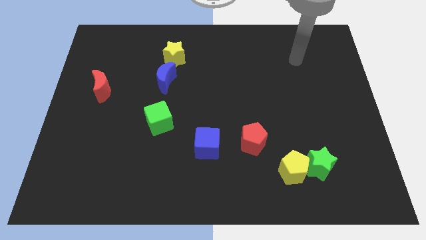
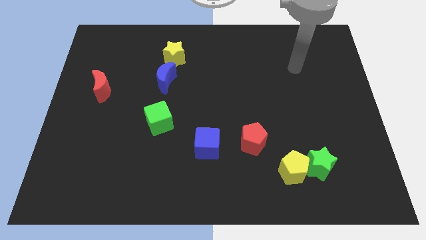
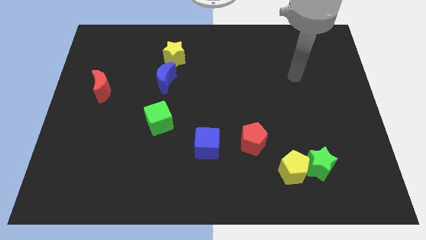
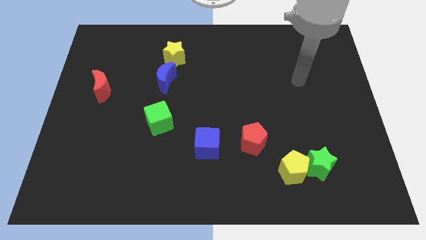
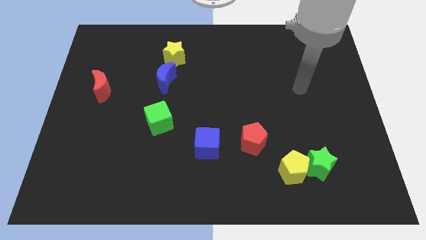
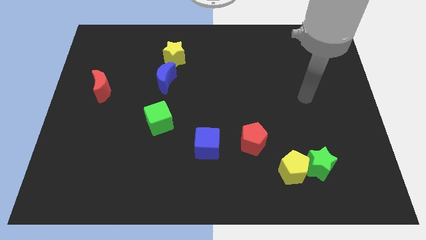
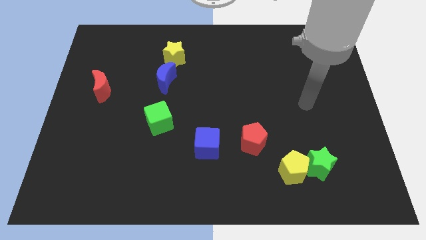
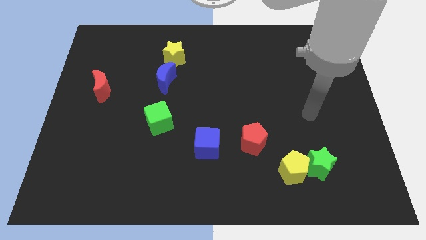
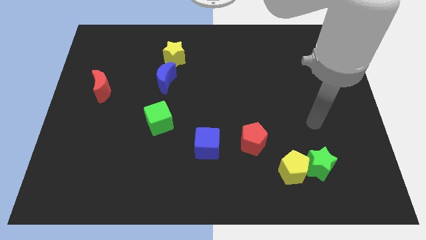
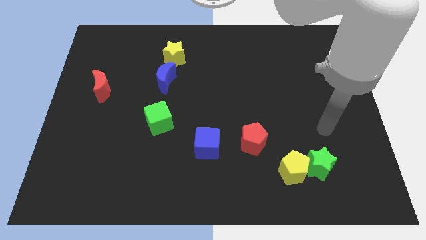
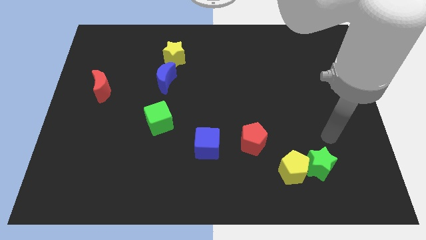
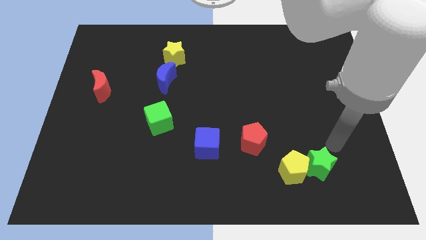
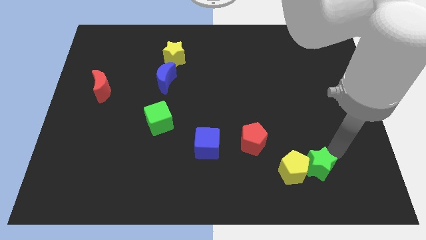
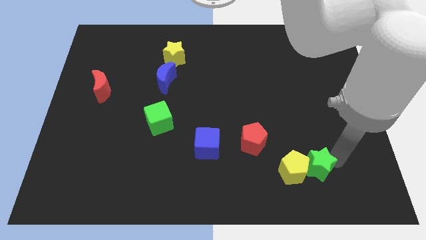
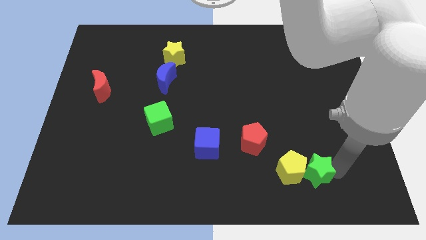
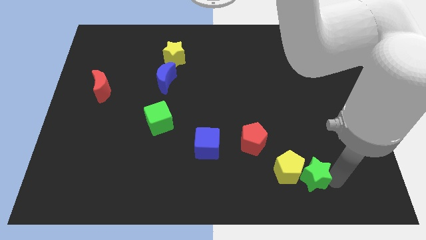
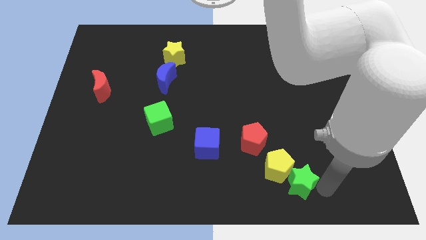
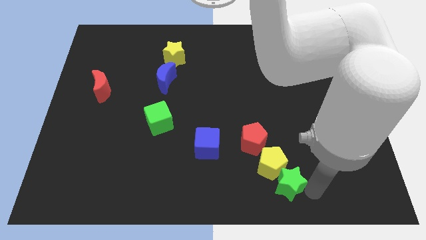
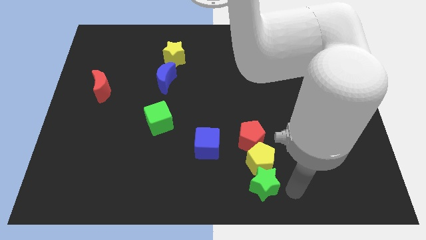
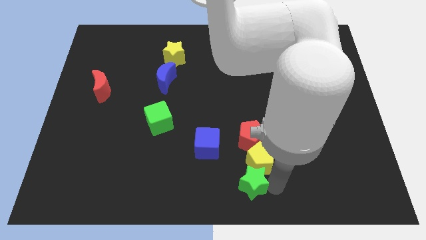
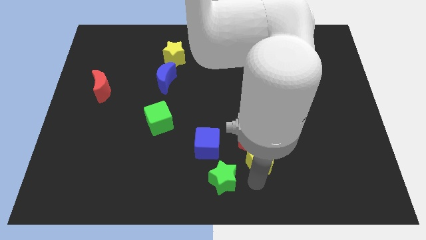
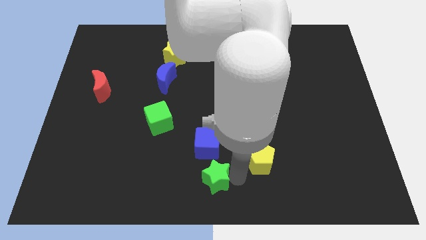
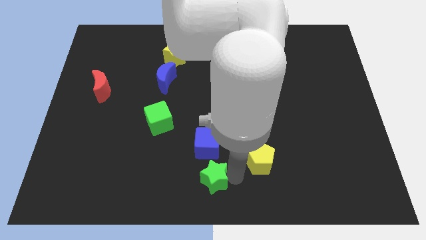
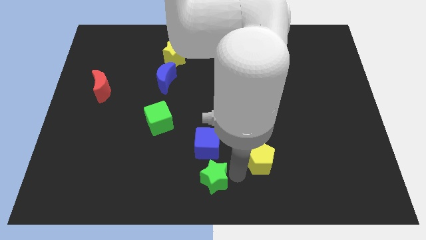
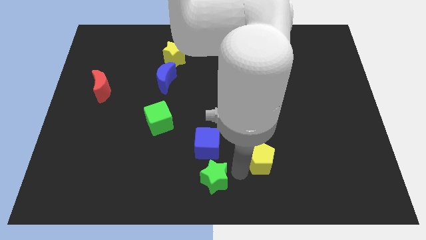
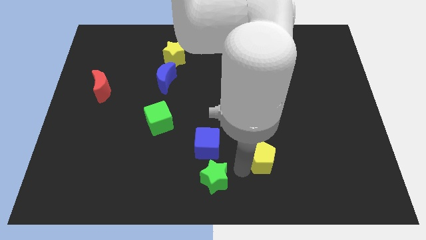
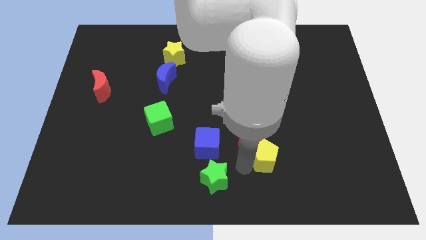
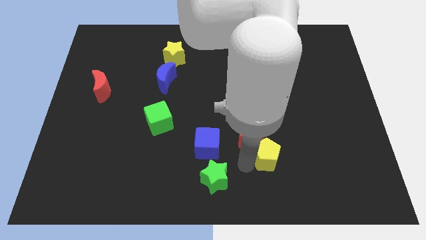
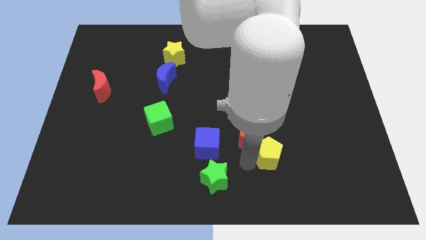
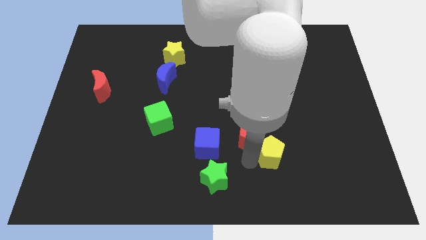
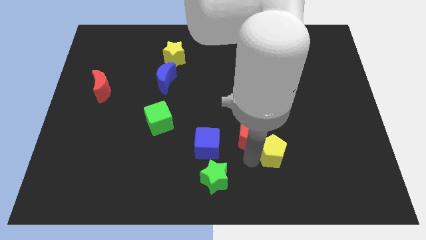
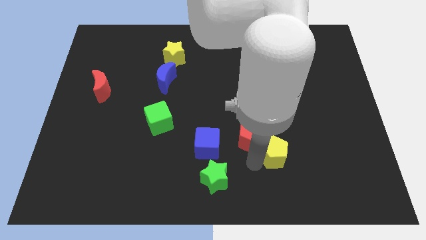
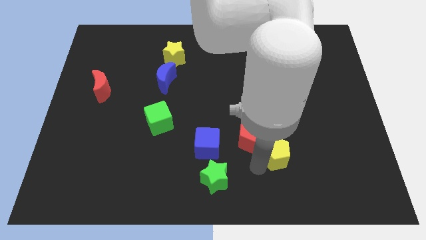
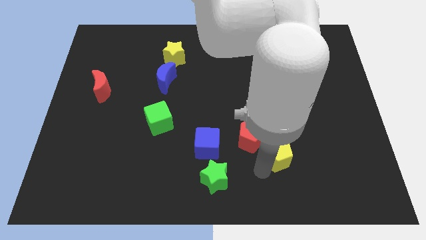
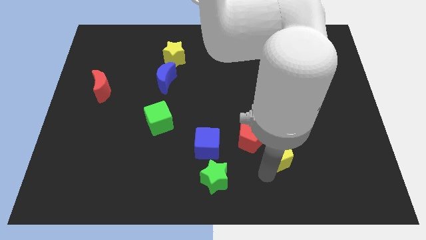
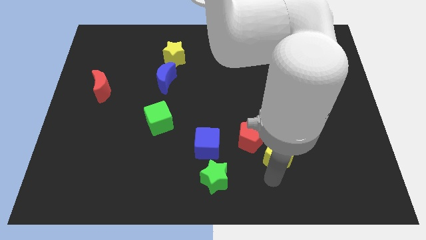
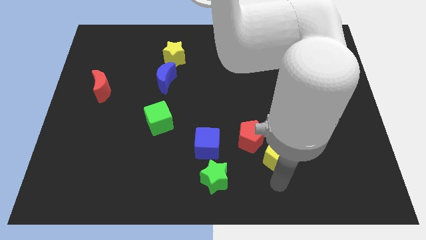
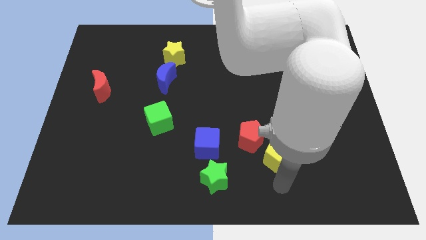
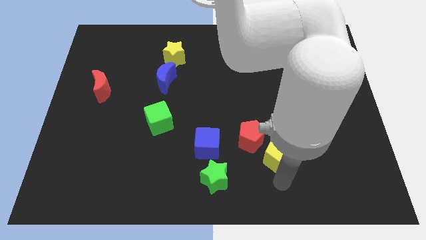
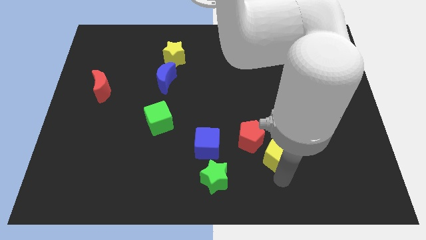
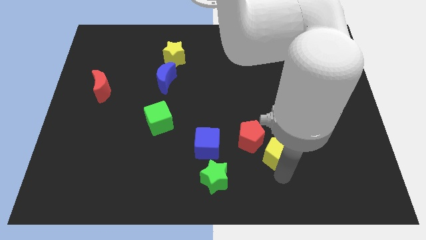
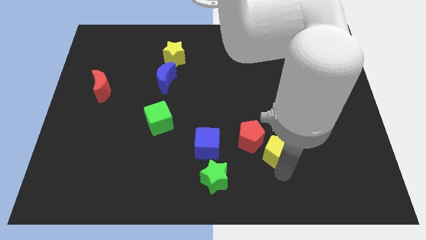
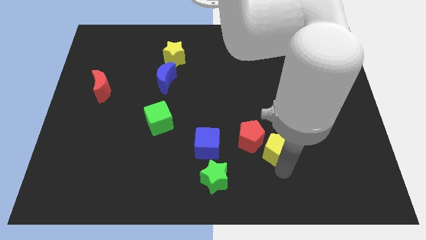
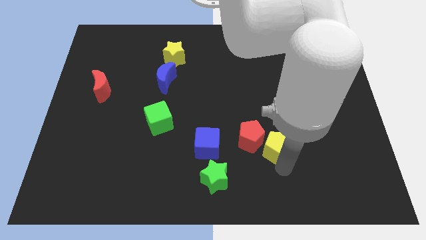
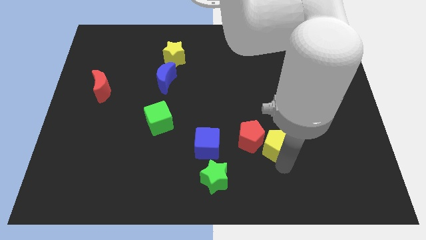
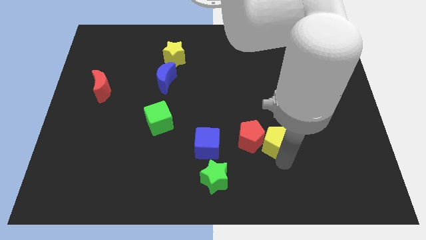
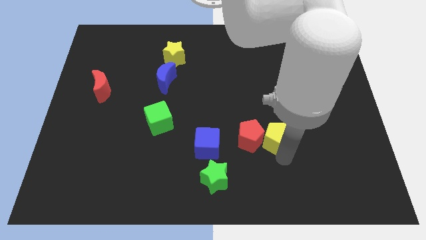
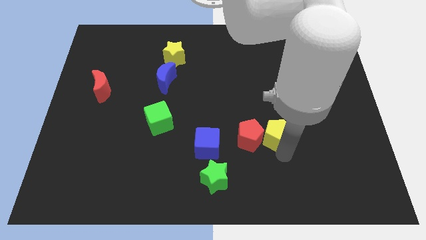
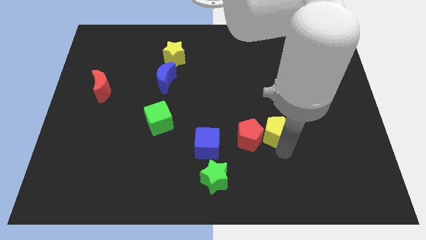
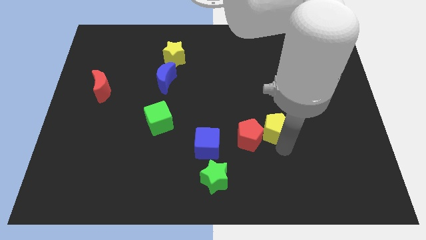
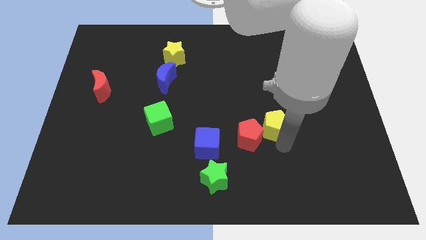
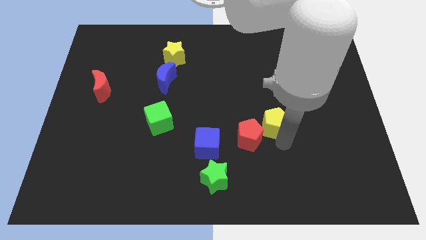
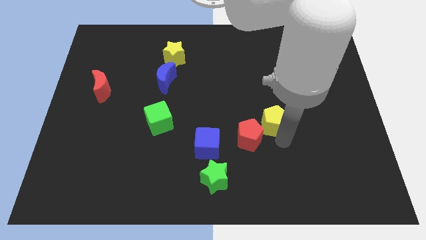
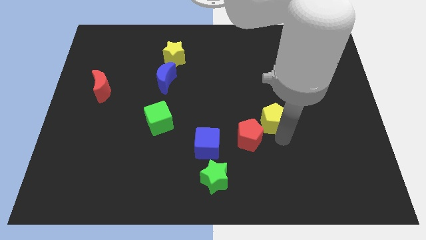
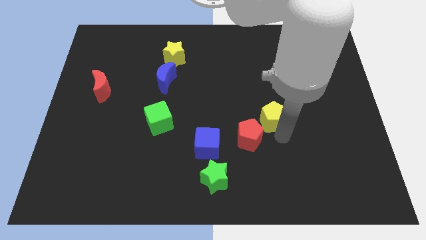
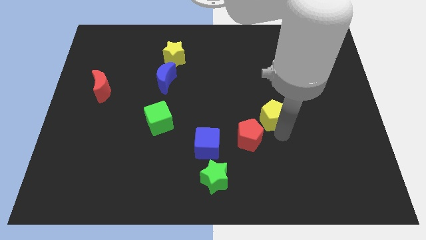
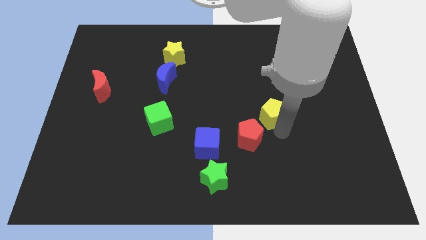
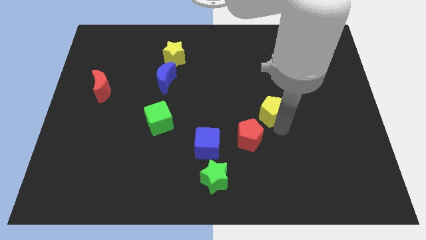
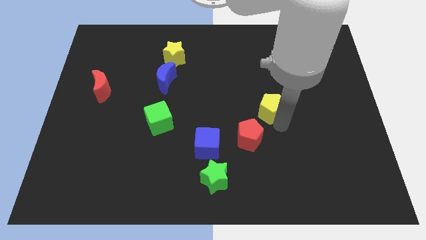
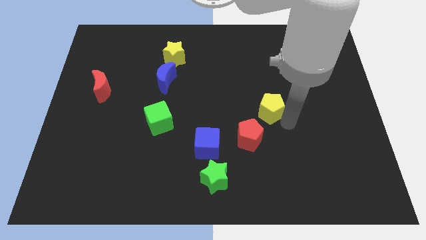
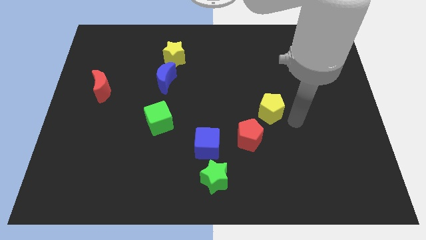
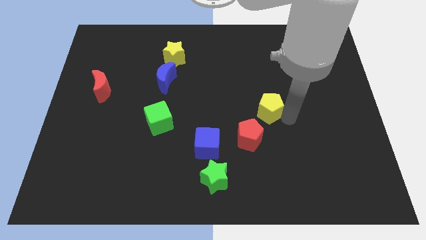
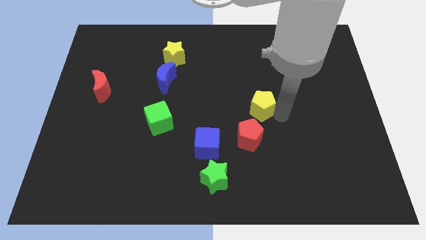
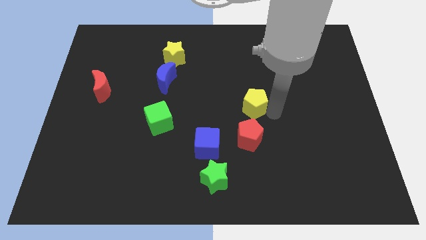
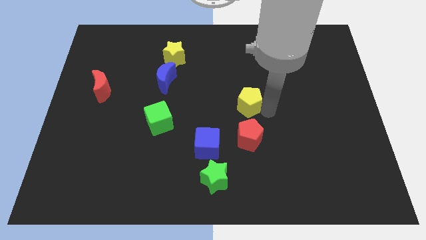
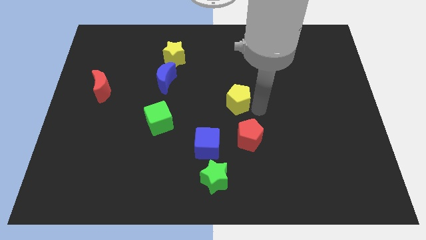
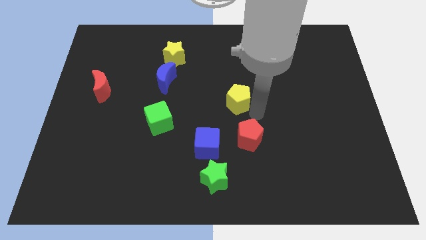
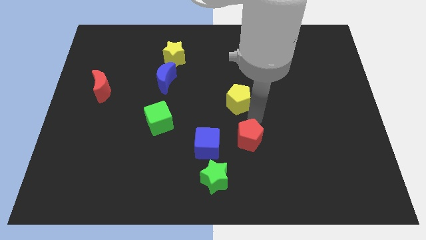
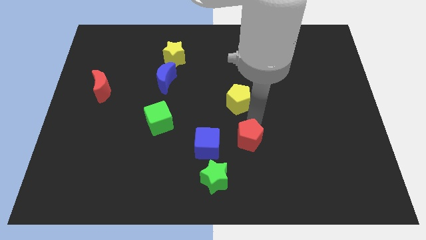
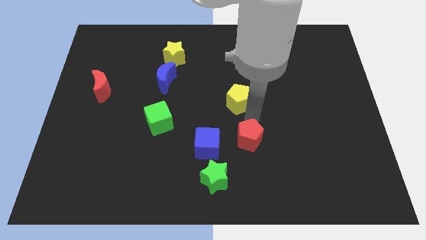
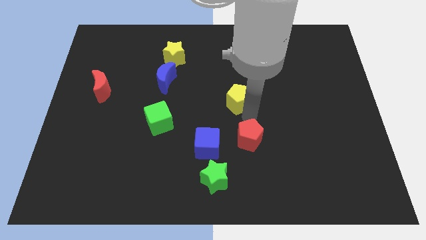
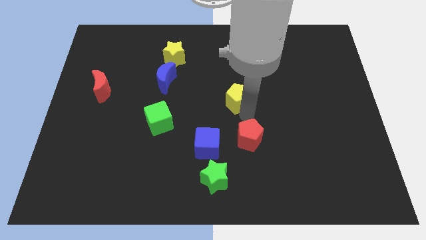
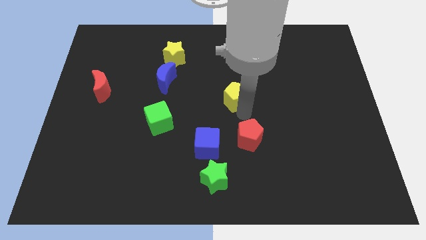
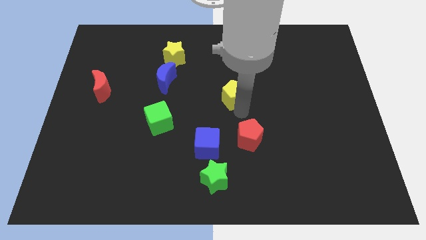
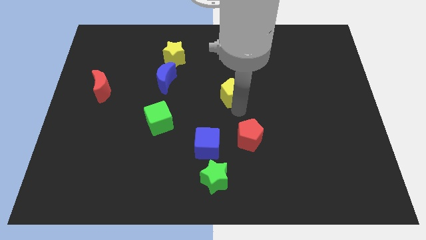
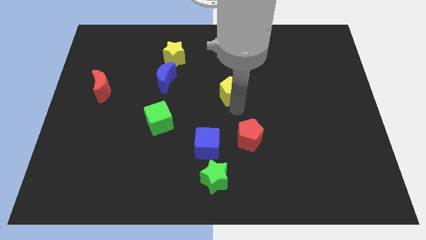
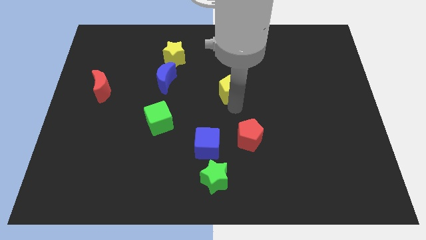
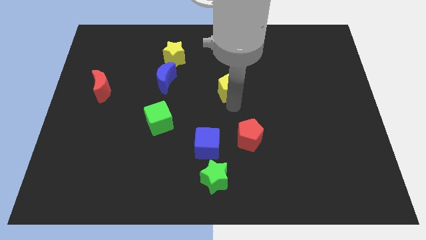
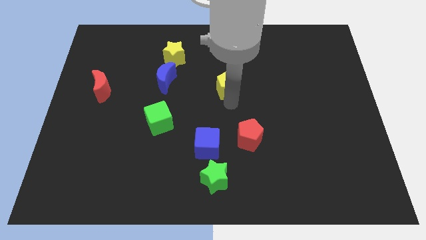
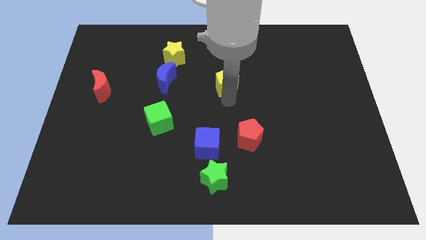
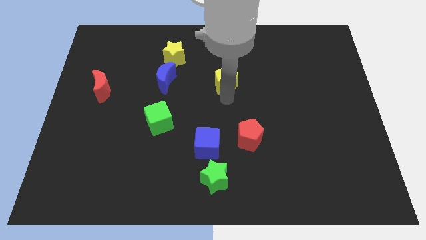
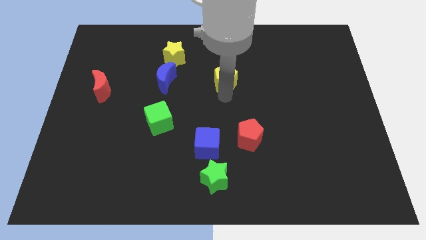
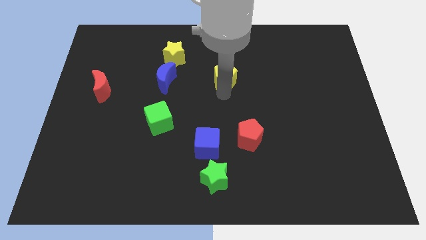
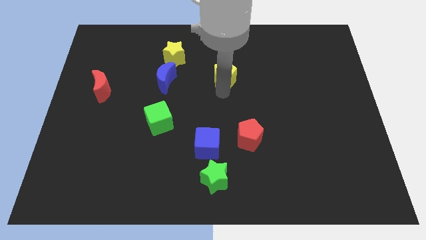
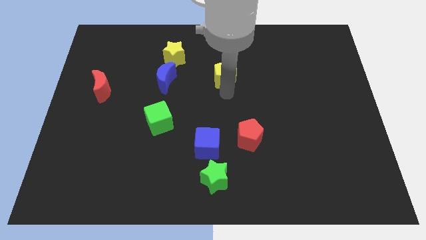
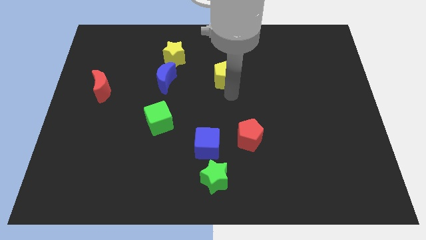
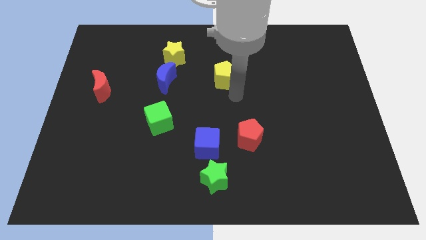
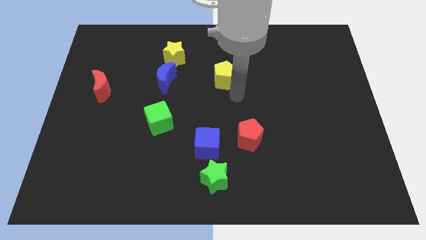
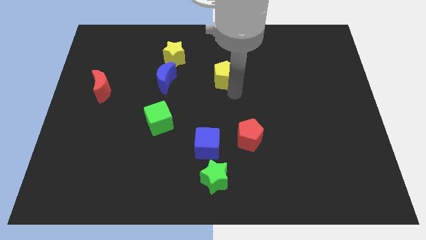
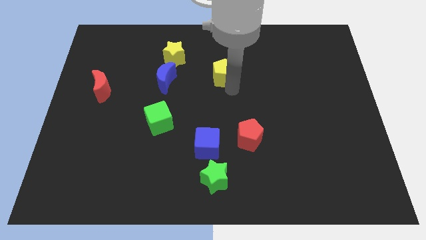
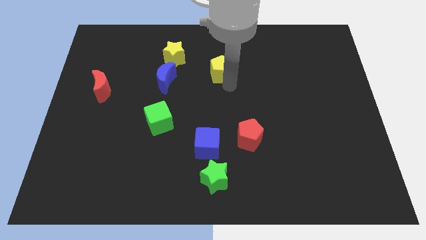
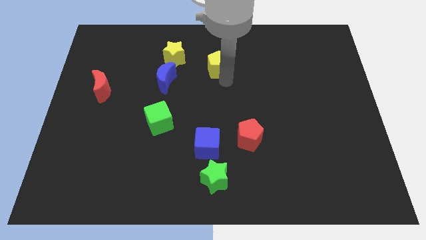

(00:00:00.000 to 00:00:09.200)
put the yellow pentagon just right of the yellow star
